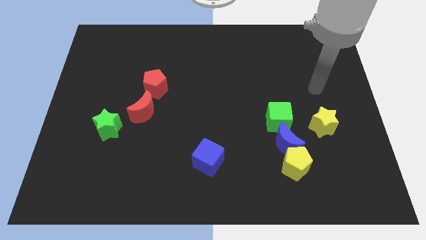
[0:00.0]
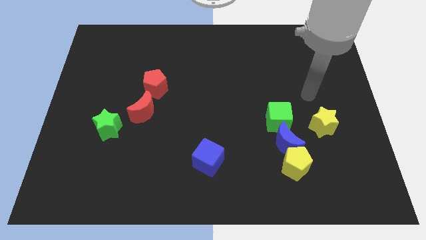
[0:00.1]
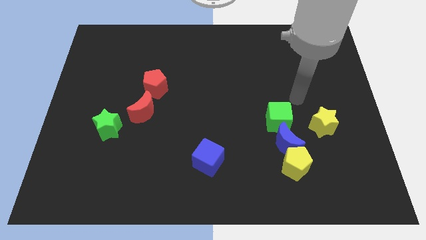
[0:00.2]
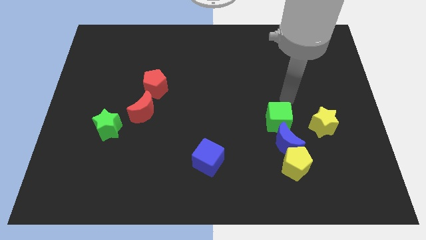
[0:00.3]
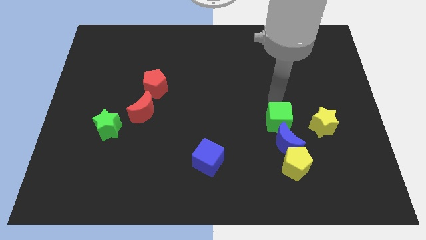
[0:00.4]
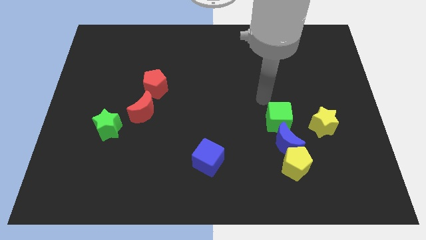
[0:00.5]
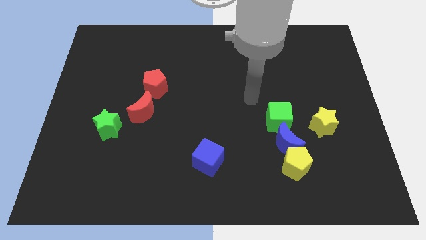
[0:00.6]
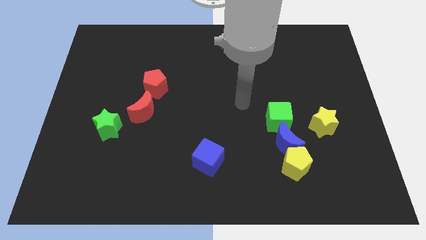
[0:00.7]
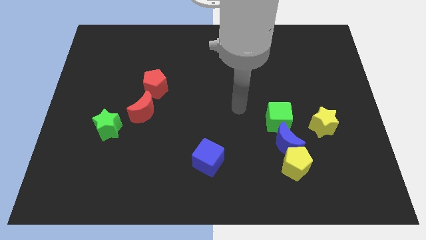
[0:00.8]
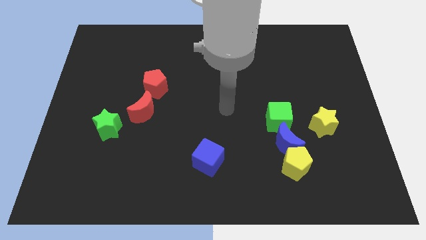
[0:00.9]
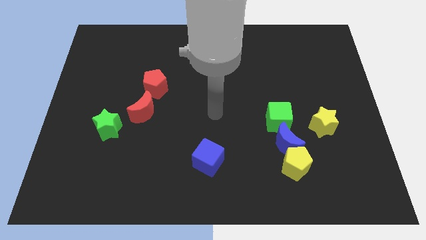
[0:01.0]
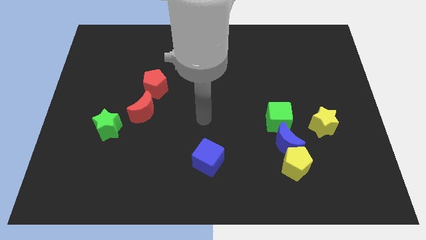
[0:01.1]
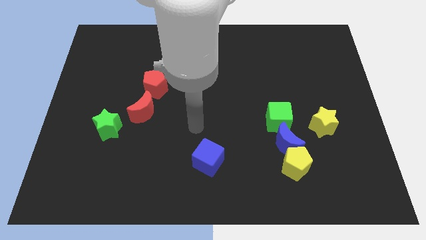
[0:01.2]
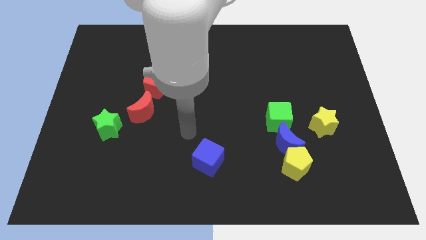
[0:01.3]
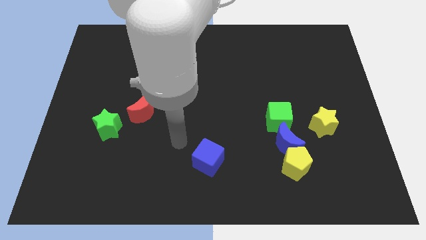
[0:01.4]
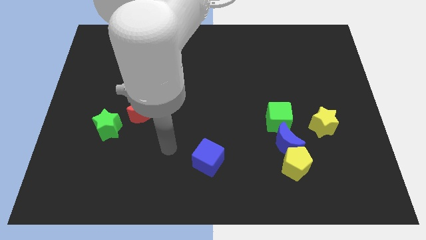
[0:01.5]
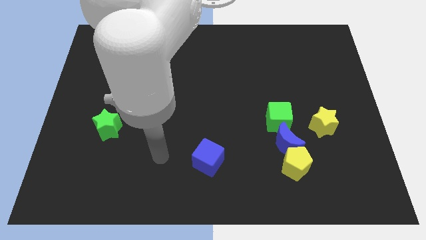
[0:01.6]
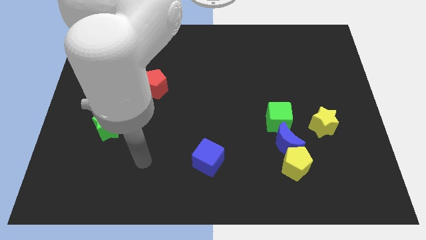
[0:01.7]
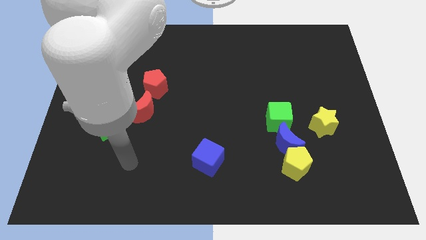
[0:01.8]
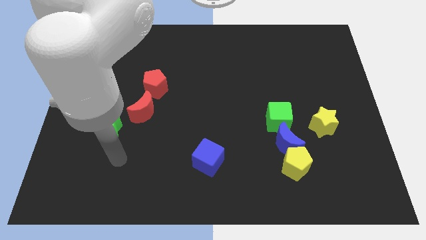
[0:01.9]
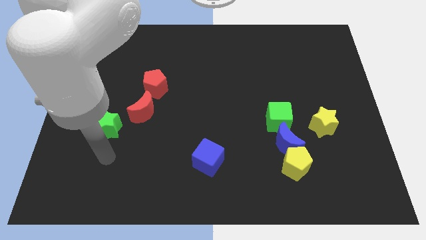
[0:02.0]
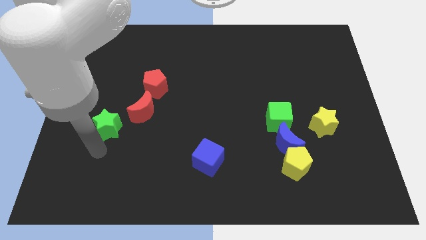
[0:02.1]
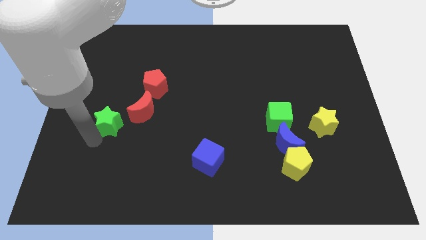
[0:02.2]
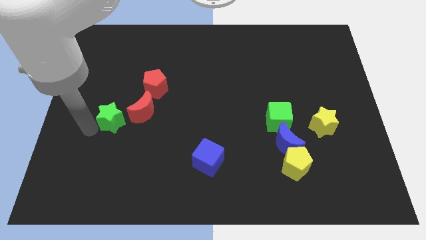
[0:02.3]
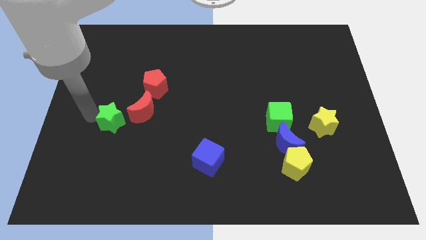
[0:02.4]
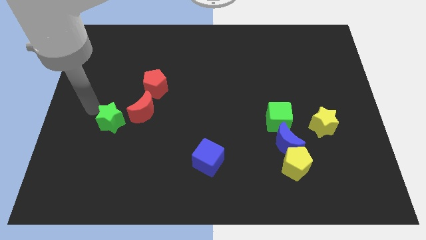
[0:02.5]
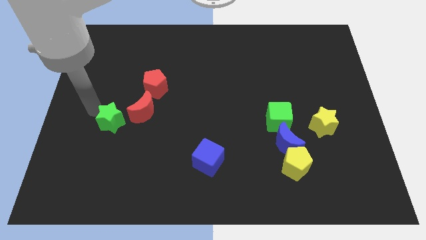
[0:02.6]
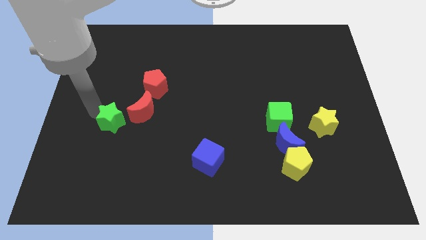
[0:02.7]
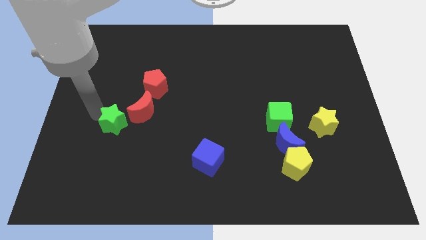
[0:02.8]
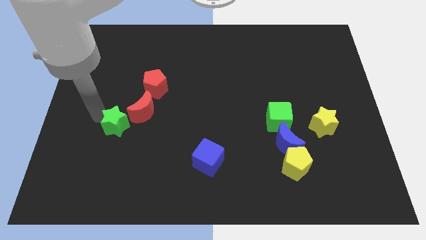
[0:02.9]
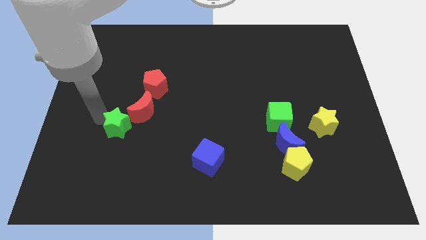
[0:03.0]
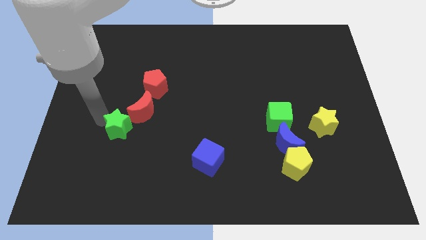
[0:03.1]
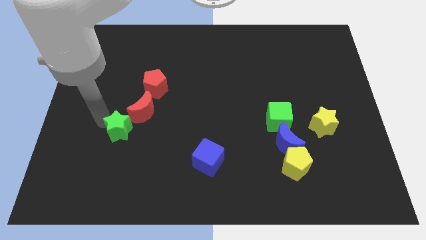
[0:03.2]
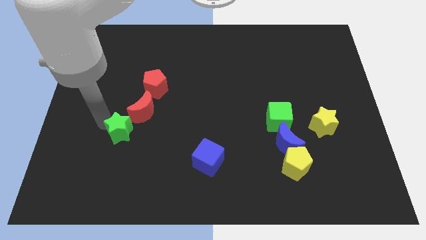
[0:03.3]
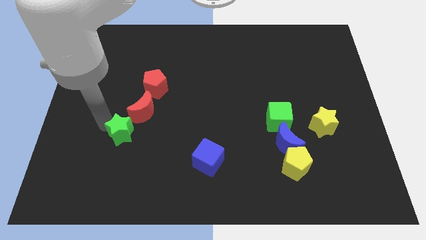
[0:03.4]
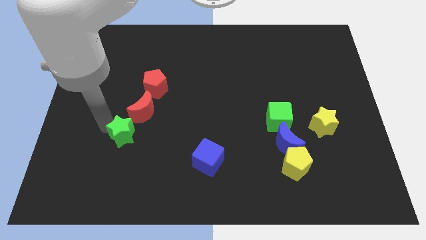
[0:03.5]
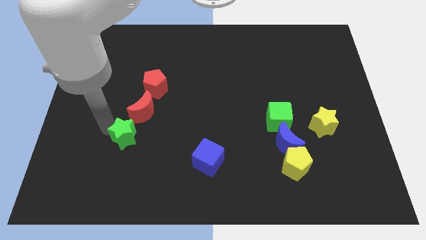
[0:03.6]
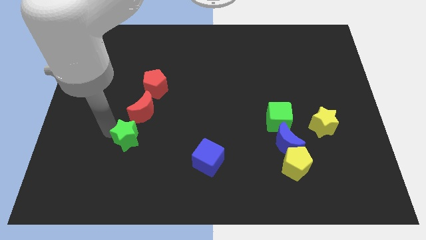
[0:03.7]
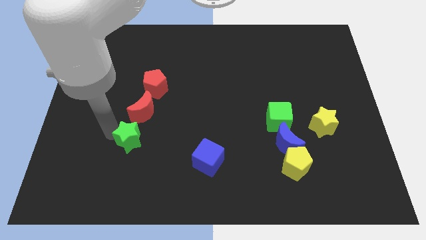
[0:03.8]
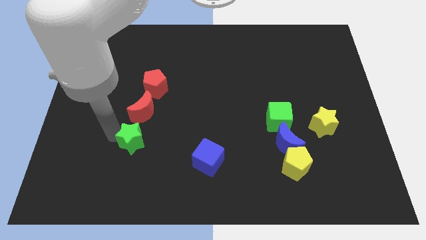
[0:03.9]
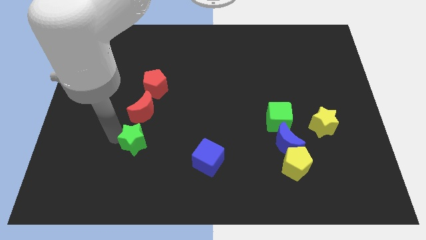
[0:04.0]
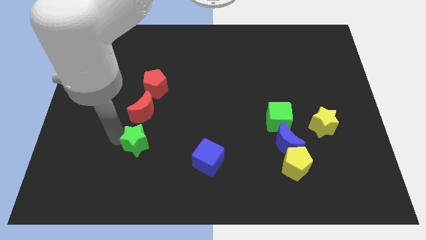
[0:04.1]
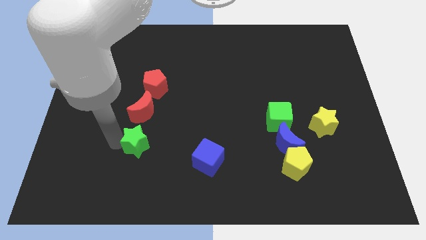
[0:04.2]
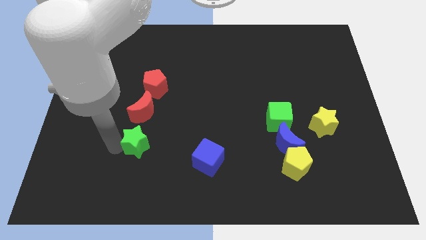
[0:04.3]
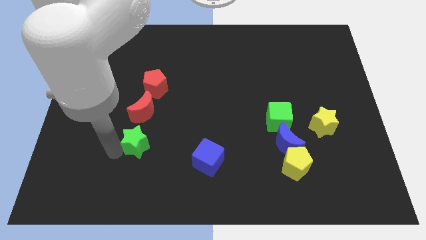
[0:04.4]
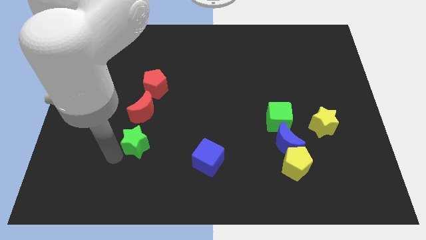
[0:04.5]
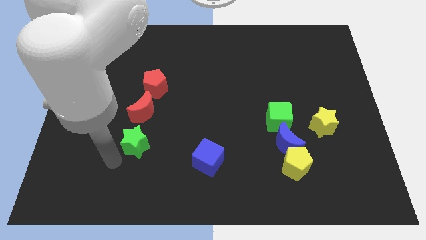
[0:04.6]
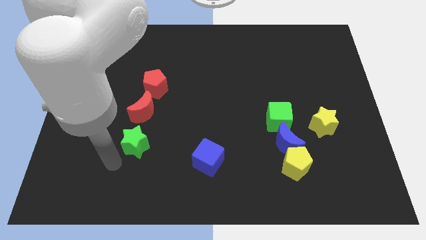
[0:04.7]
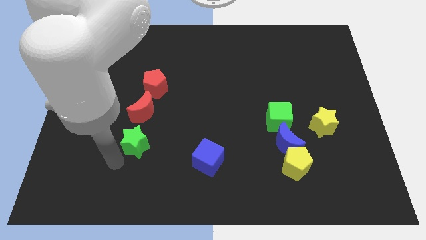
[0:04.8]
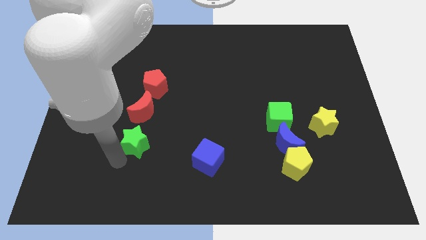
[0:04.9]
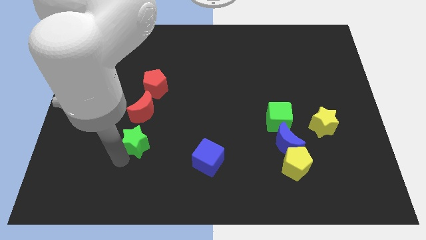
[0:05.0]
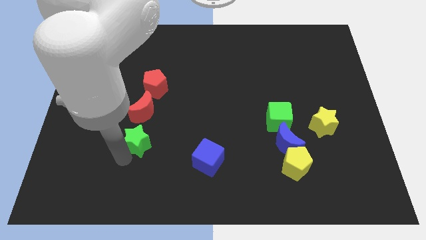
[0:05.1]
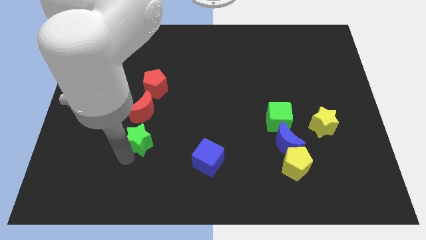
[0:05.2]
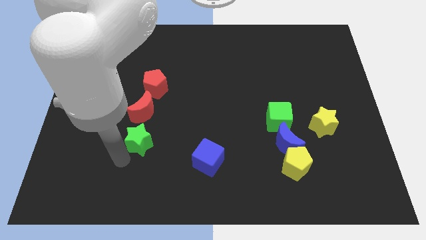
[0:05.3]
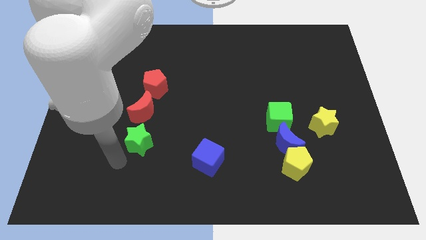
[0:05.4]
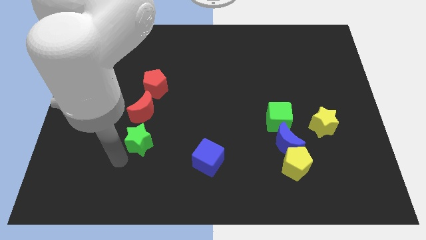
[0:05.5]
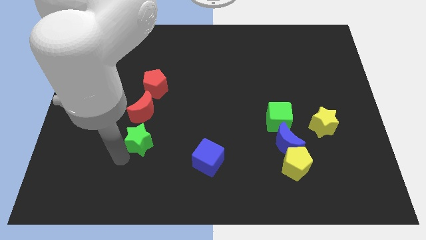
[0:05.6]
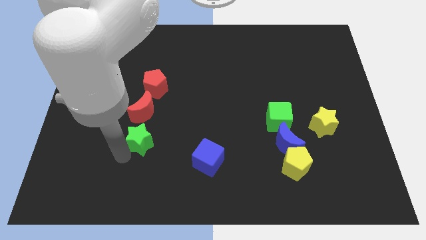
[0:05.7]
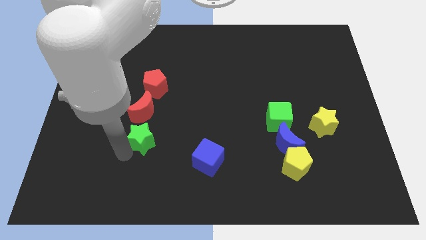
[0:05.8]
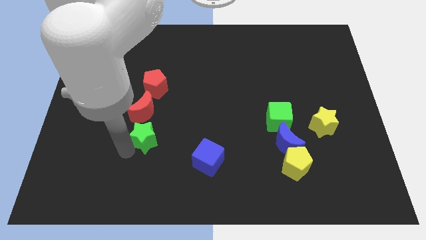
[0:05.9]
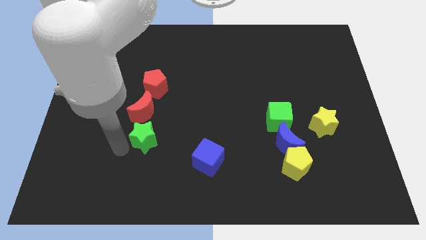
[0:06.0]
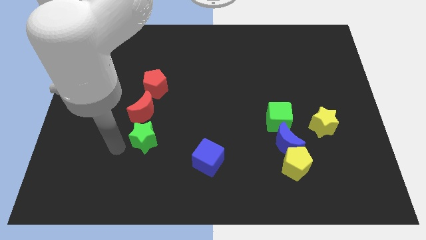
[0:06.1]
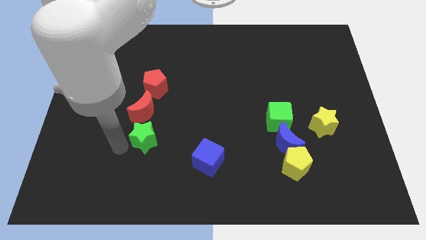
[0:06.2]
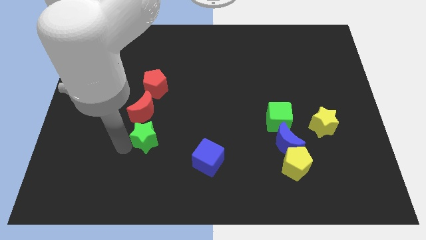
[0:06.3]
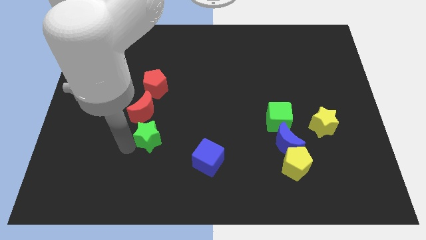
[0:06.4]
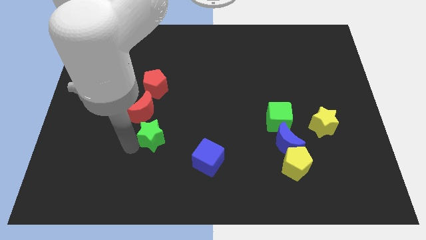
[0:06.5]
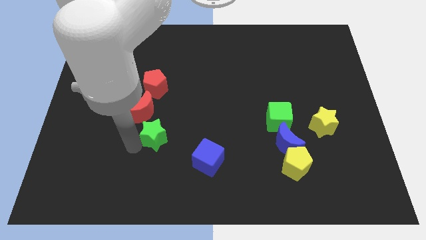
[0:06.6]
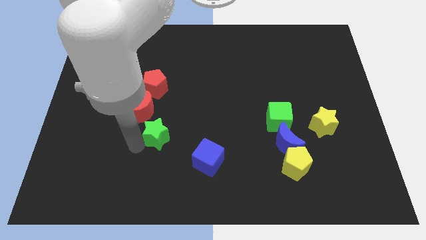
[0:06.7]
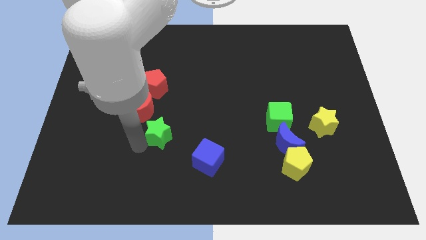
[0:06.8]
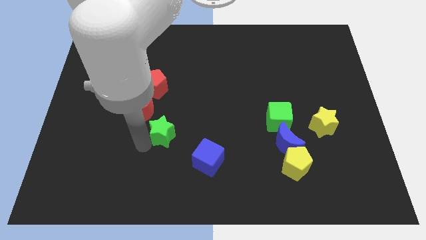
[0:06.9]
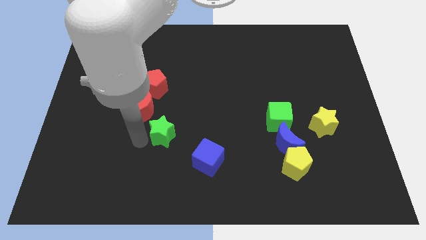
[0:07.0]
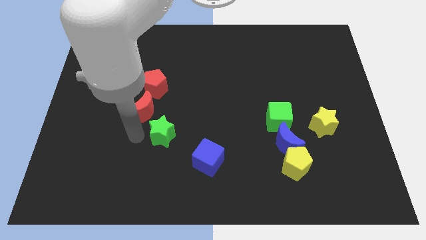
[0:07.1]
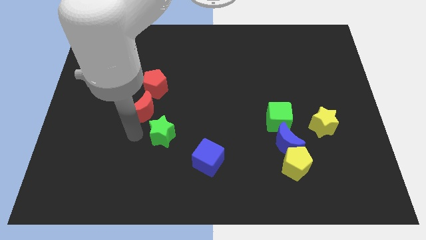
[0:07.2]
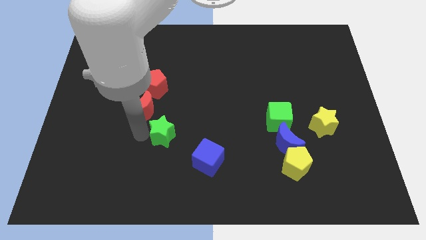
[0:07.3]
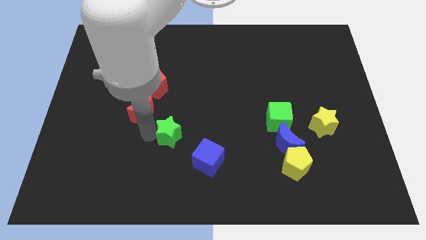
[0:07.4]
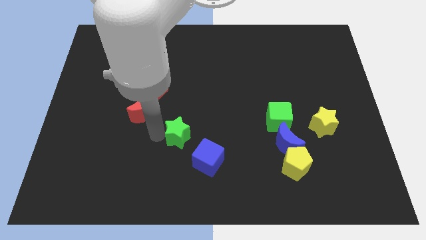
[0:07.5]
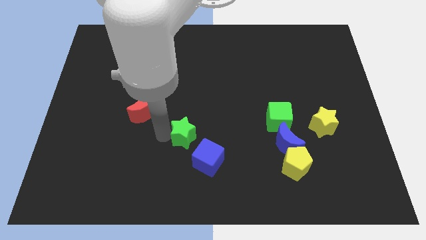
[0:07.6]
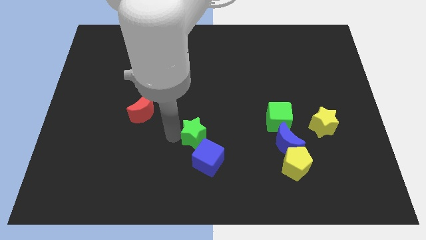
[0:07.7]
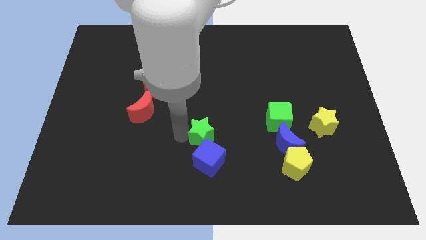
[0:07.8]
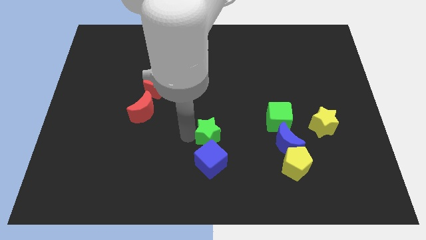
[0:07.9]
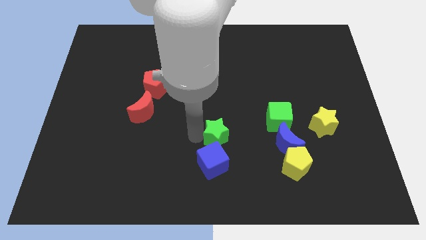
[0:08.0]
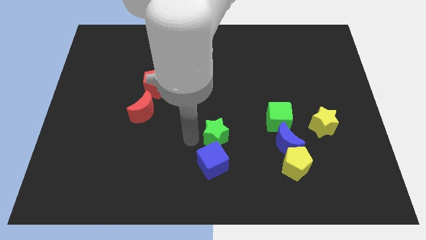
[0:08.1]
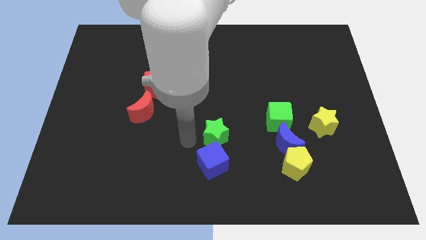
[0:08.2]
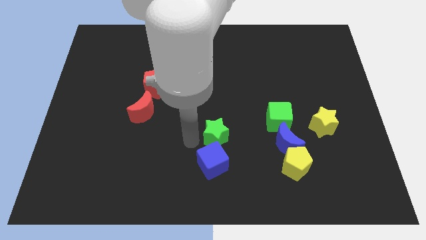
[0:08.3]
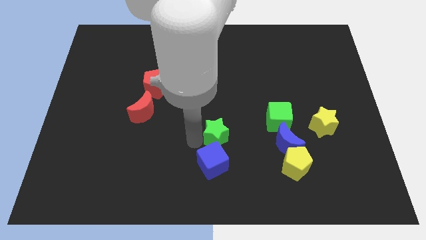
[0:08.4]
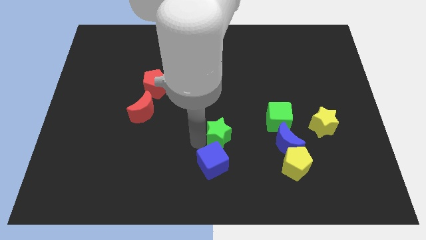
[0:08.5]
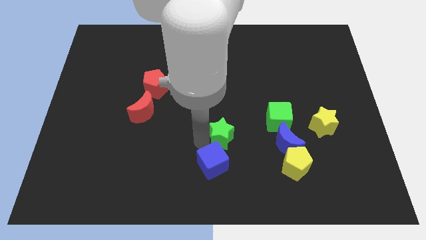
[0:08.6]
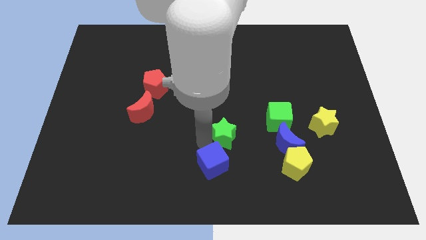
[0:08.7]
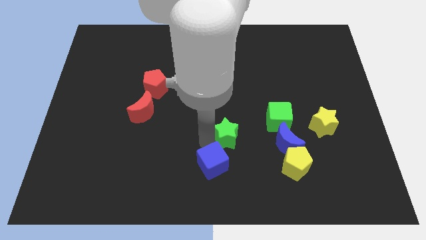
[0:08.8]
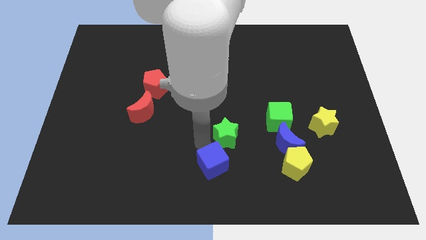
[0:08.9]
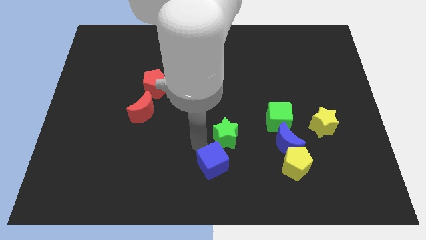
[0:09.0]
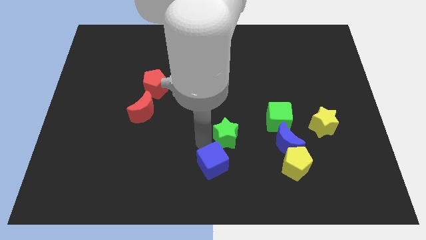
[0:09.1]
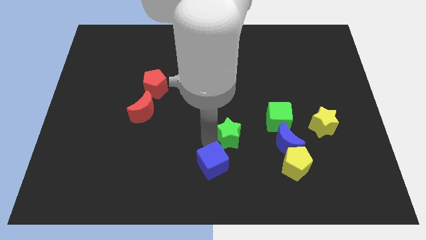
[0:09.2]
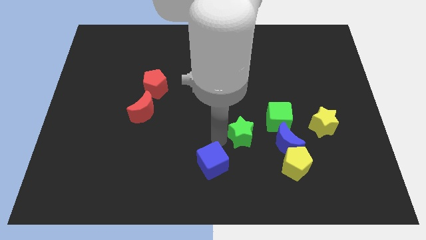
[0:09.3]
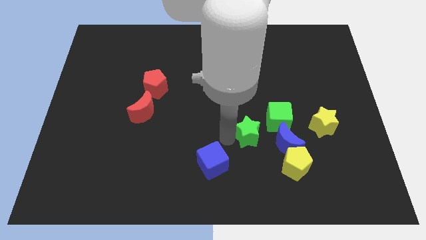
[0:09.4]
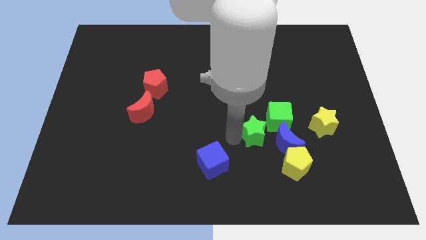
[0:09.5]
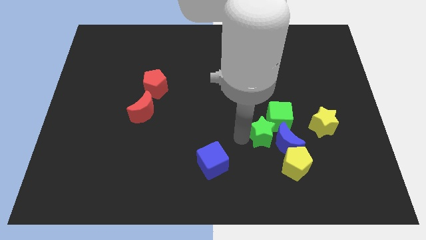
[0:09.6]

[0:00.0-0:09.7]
put the green star to the green cube
